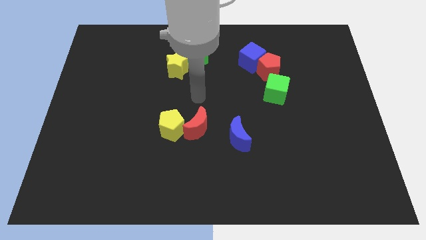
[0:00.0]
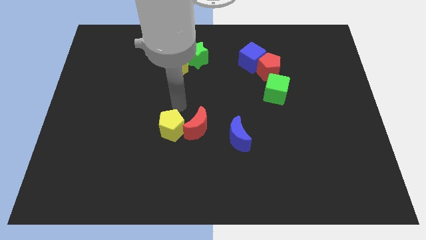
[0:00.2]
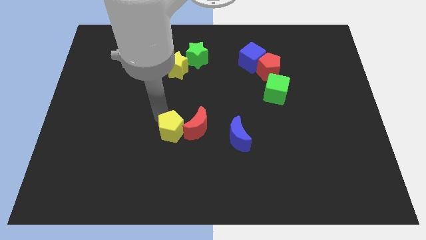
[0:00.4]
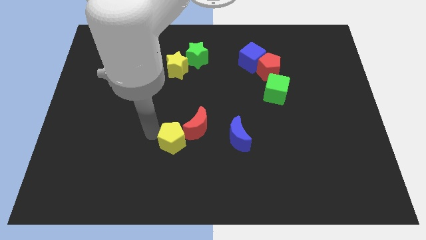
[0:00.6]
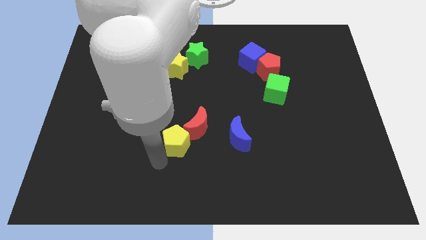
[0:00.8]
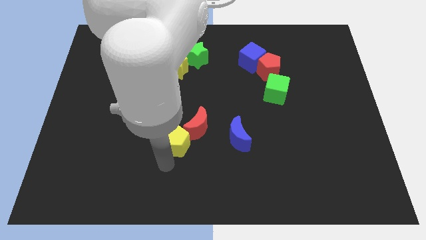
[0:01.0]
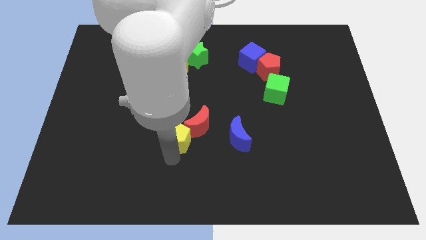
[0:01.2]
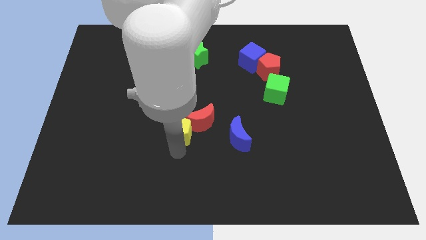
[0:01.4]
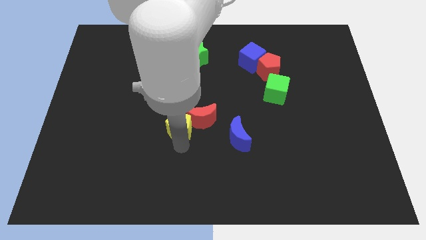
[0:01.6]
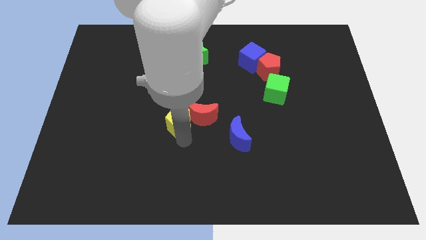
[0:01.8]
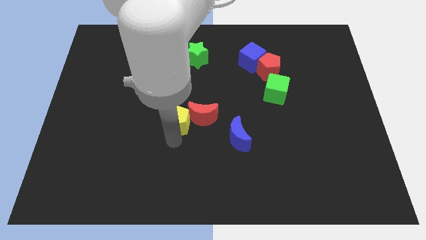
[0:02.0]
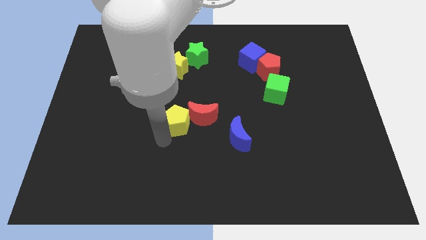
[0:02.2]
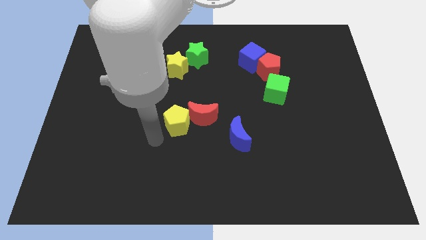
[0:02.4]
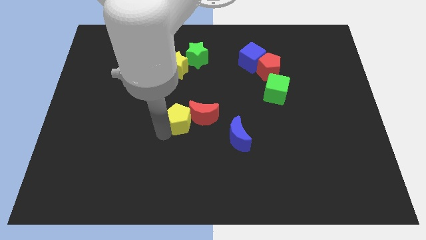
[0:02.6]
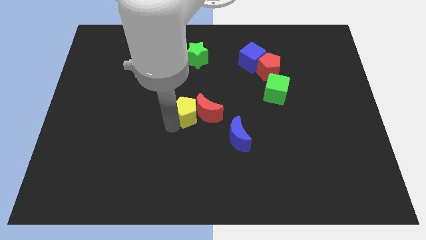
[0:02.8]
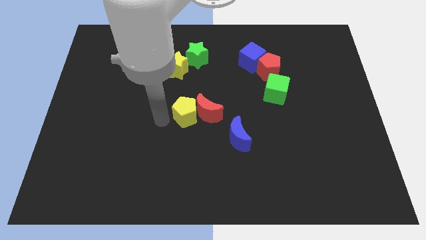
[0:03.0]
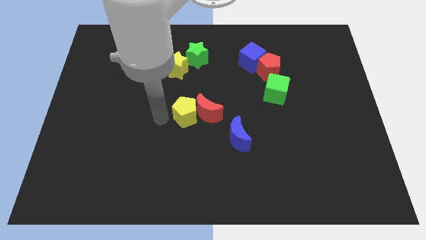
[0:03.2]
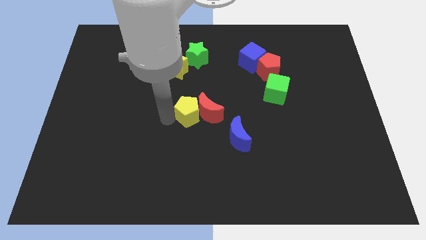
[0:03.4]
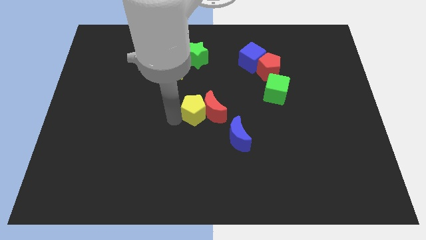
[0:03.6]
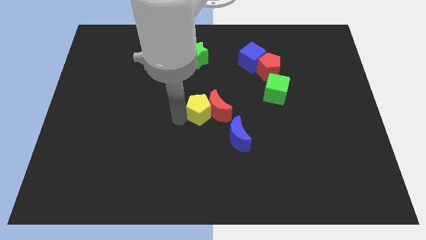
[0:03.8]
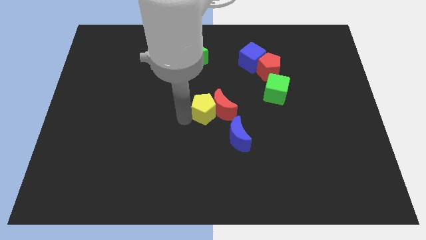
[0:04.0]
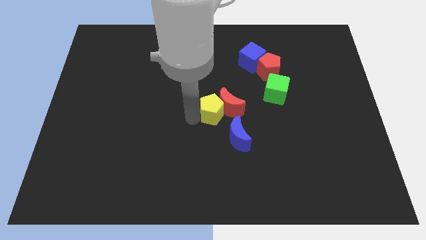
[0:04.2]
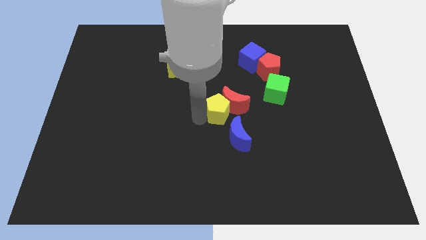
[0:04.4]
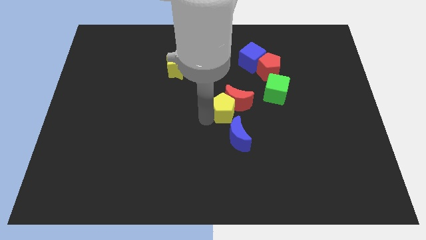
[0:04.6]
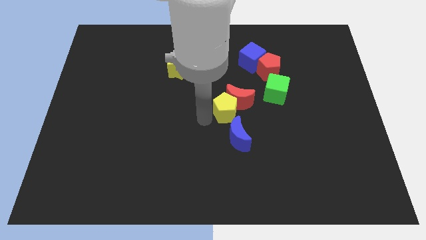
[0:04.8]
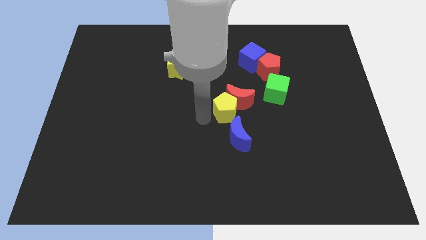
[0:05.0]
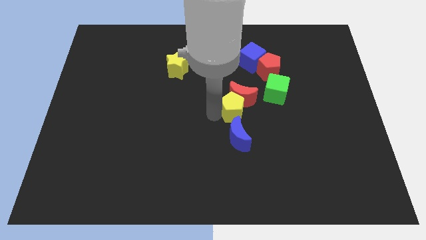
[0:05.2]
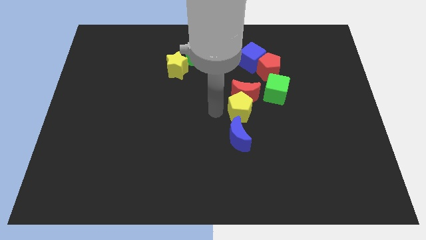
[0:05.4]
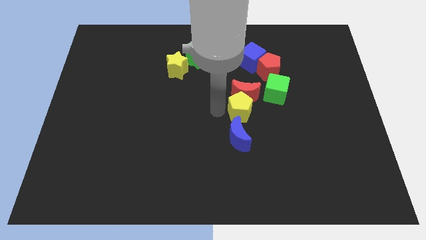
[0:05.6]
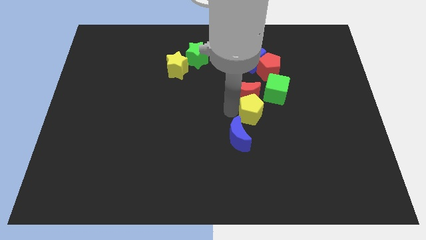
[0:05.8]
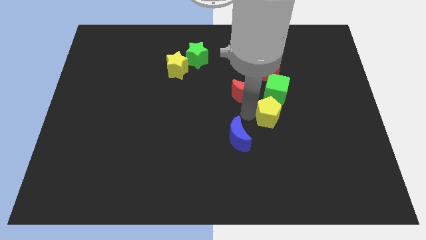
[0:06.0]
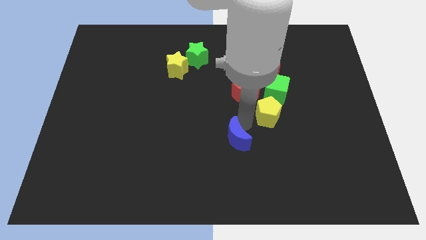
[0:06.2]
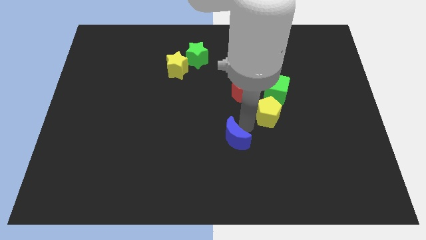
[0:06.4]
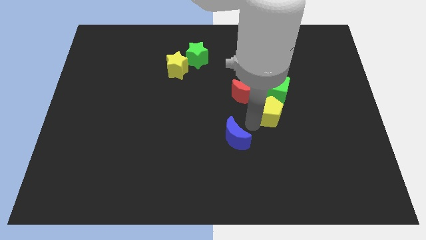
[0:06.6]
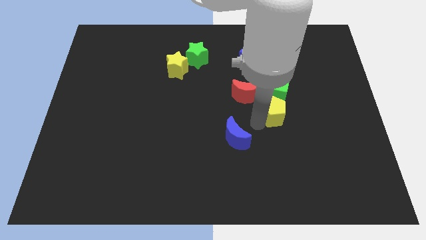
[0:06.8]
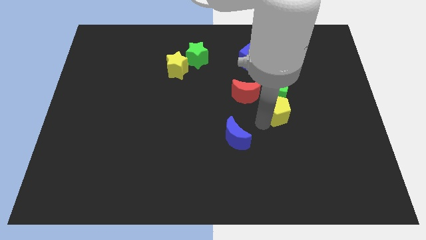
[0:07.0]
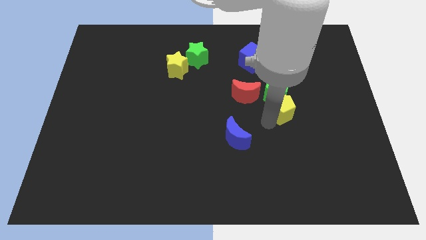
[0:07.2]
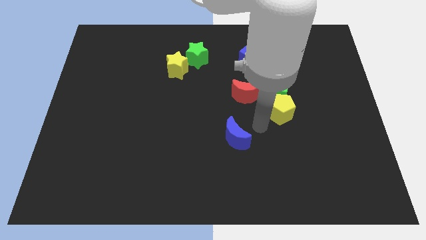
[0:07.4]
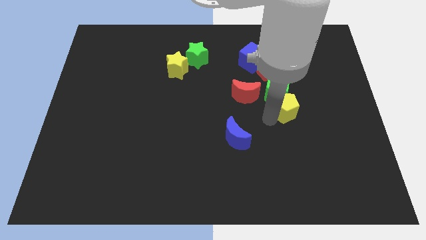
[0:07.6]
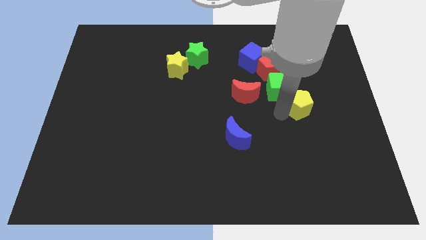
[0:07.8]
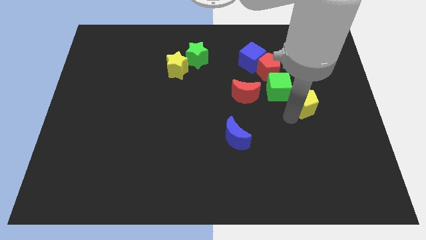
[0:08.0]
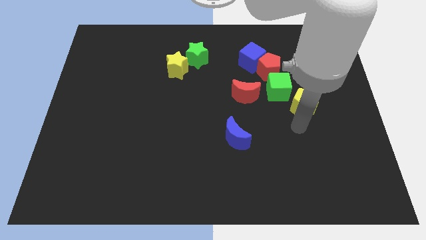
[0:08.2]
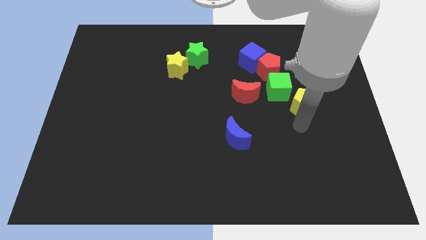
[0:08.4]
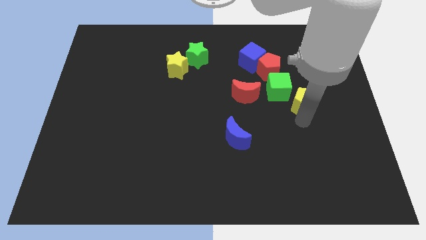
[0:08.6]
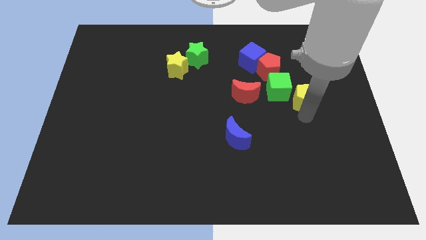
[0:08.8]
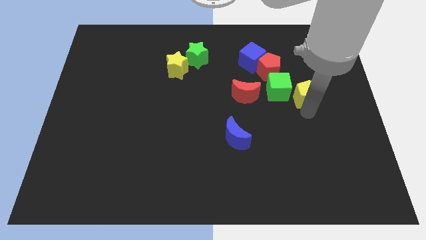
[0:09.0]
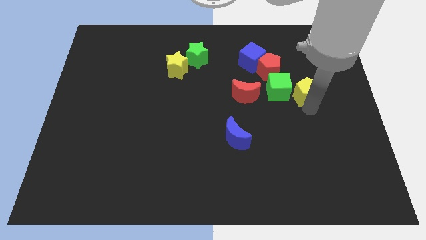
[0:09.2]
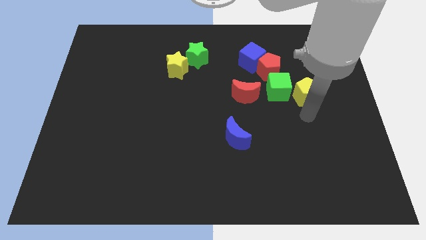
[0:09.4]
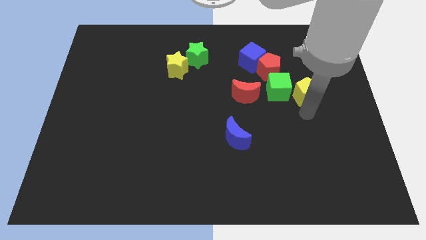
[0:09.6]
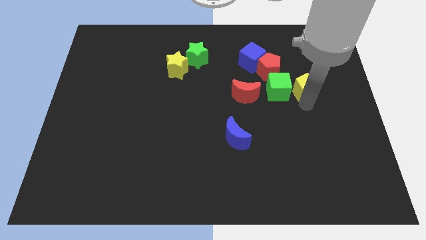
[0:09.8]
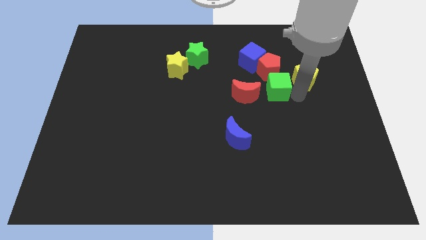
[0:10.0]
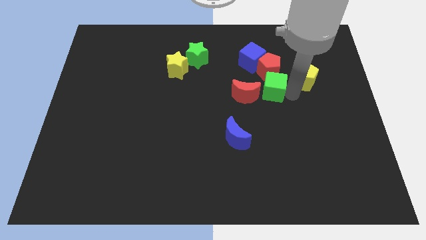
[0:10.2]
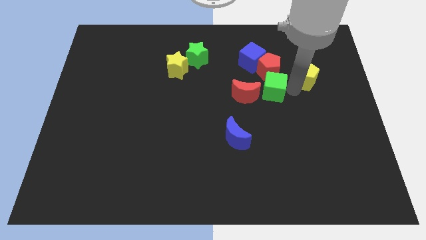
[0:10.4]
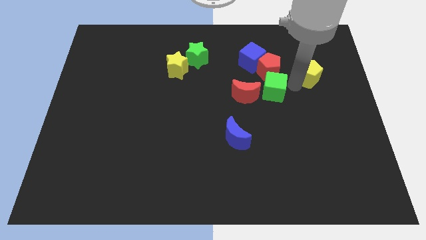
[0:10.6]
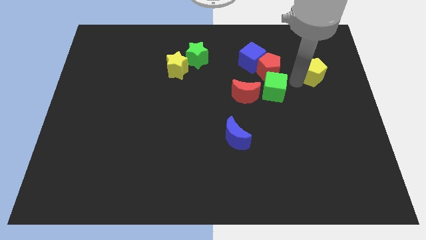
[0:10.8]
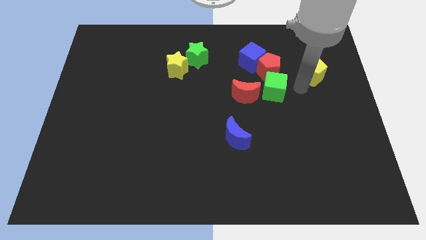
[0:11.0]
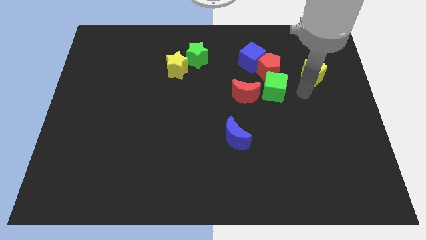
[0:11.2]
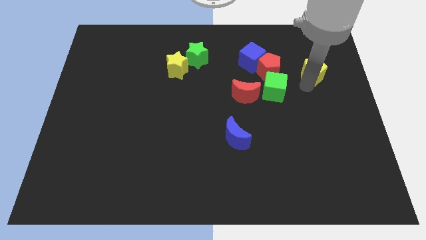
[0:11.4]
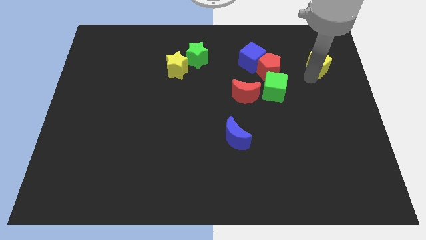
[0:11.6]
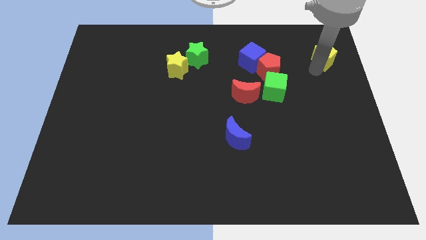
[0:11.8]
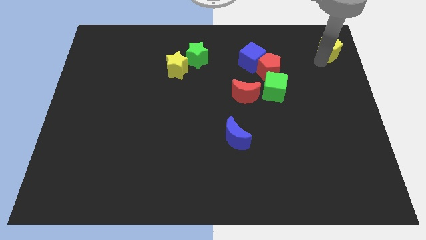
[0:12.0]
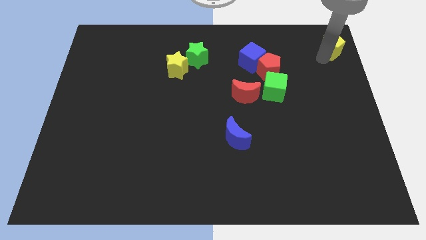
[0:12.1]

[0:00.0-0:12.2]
slide the yellow pentagon to the top right

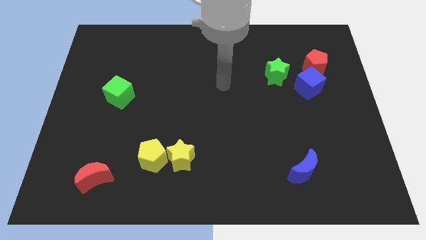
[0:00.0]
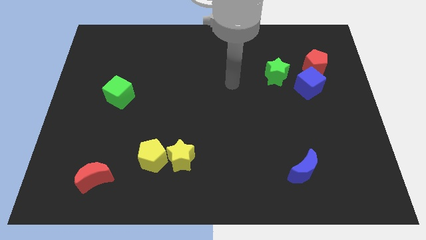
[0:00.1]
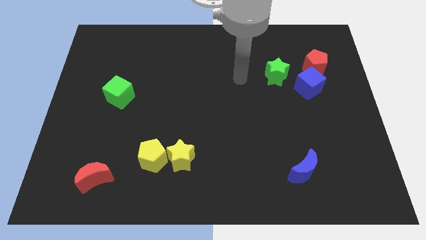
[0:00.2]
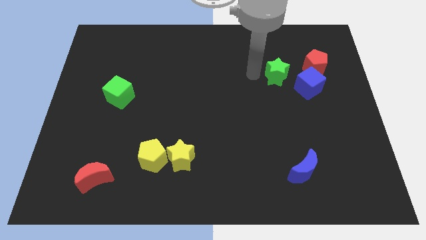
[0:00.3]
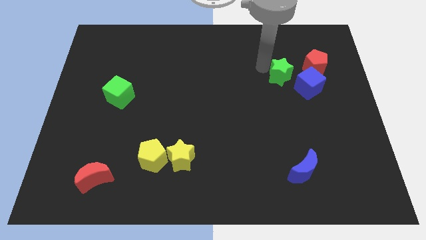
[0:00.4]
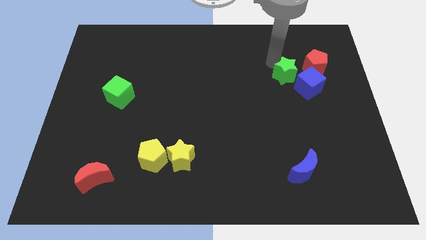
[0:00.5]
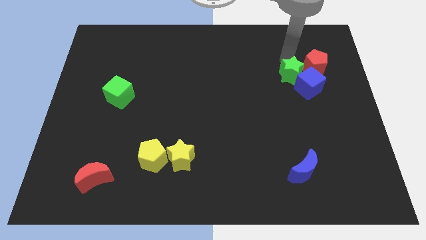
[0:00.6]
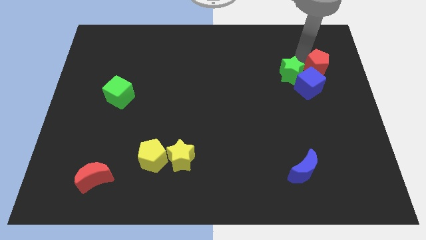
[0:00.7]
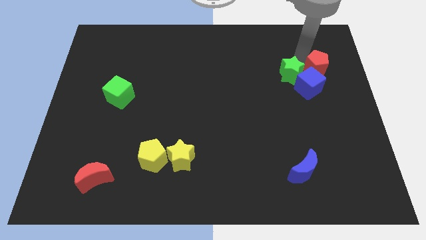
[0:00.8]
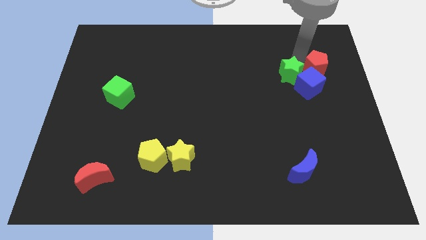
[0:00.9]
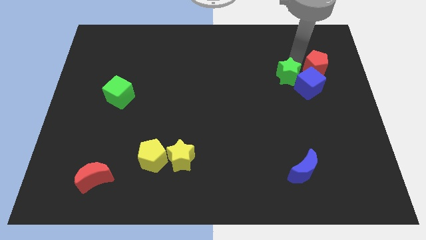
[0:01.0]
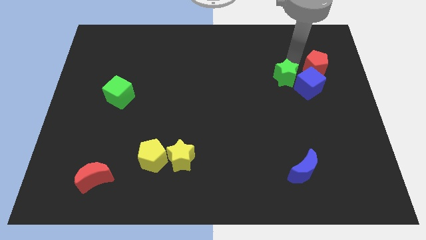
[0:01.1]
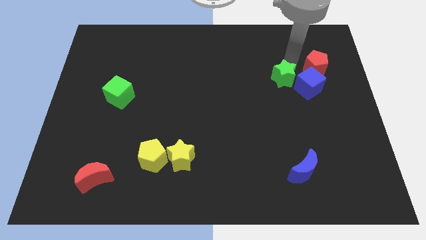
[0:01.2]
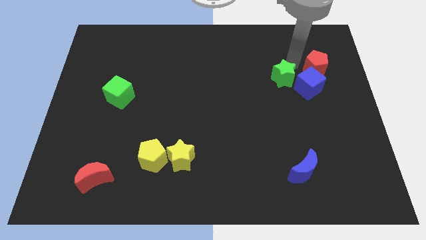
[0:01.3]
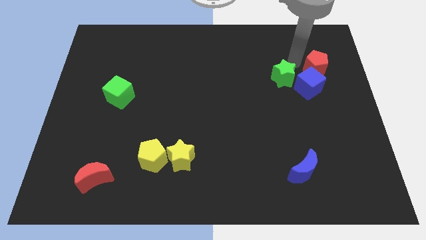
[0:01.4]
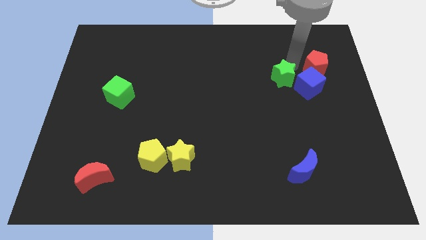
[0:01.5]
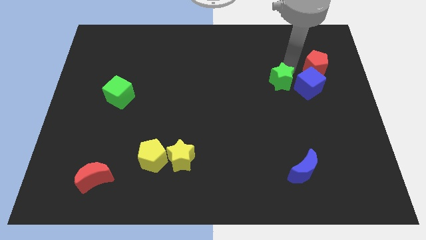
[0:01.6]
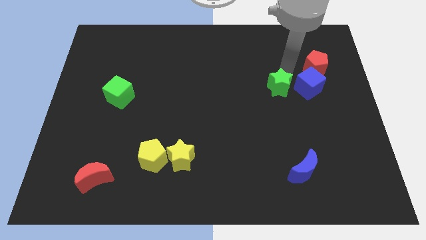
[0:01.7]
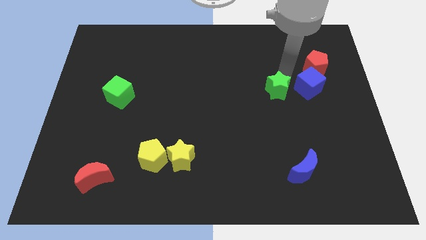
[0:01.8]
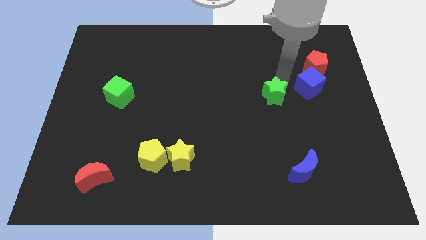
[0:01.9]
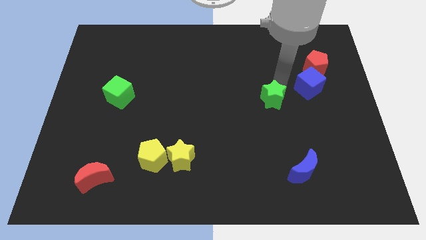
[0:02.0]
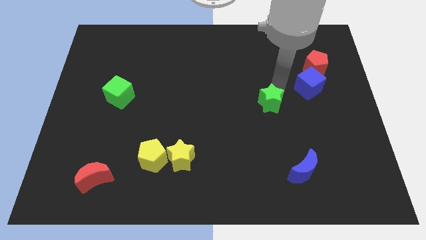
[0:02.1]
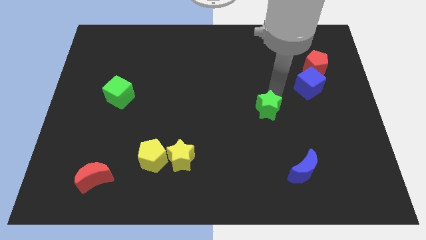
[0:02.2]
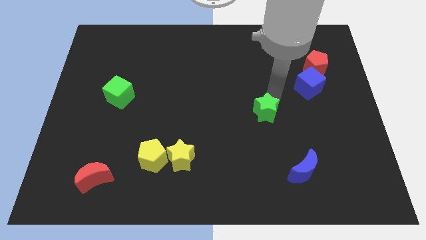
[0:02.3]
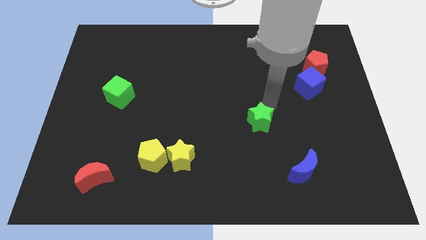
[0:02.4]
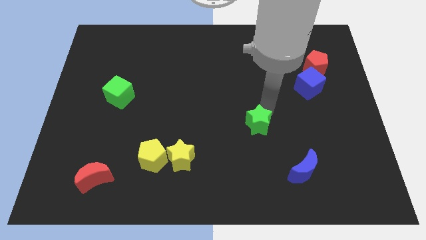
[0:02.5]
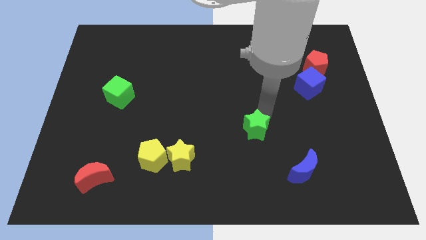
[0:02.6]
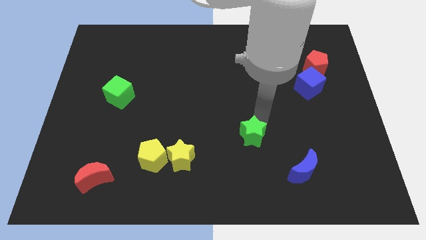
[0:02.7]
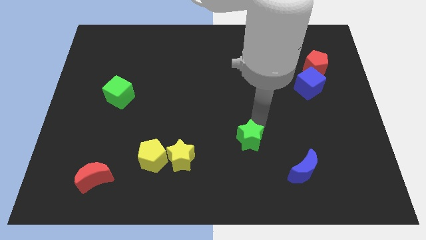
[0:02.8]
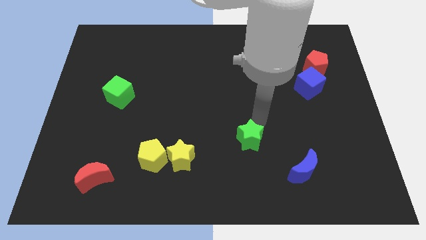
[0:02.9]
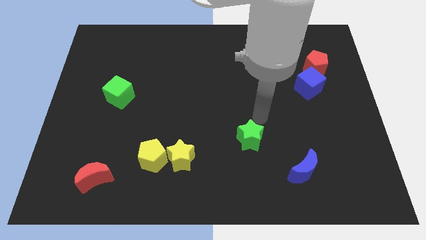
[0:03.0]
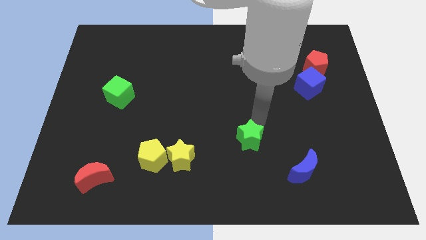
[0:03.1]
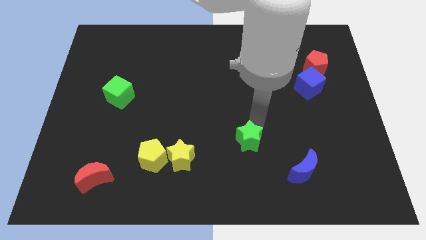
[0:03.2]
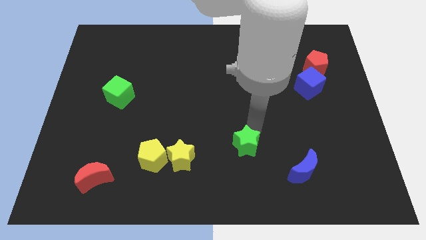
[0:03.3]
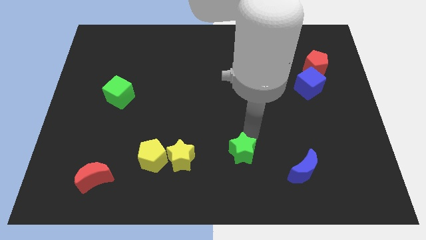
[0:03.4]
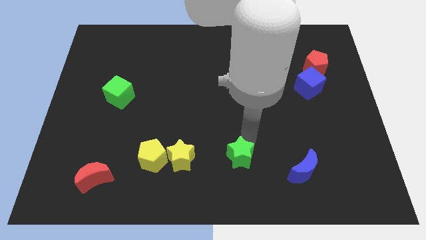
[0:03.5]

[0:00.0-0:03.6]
put the green star to the bottom
